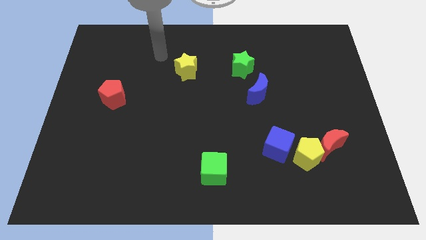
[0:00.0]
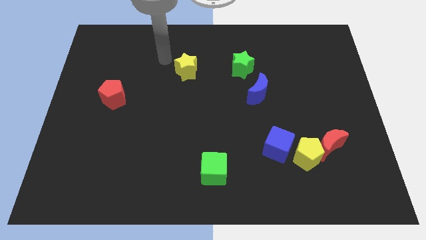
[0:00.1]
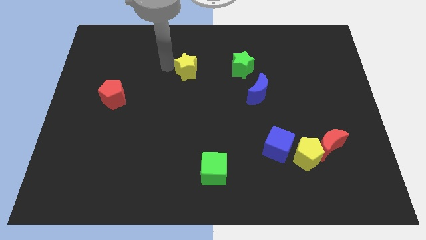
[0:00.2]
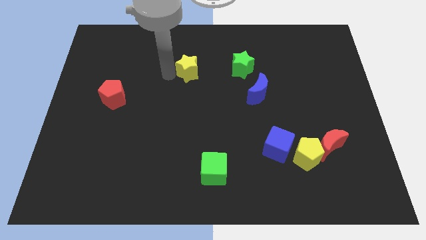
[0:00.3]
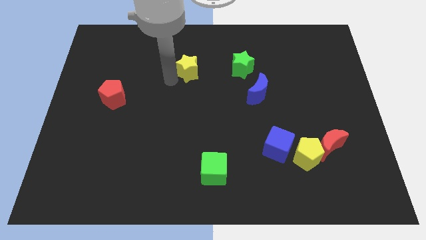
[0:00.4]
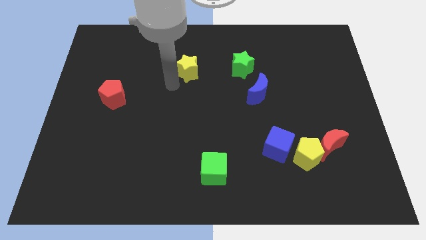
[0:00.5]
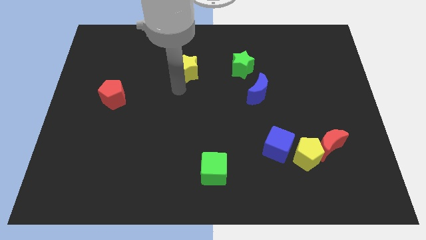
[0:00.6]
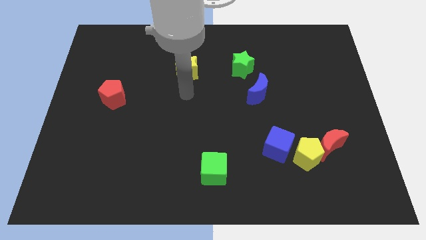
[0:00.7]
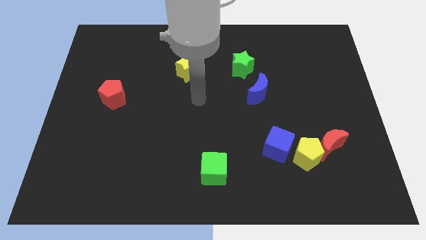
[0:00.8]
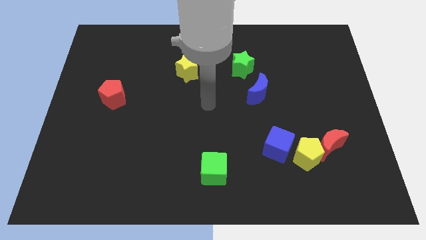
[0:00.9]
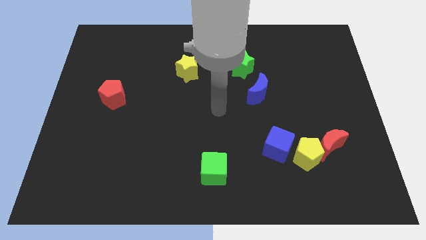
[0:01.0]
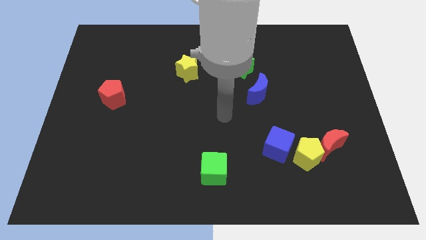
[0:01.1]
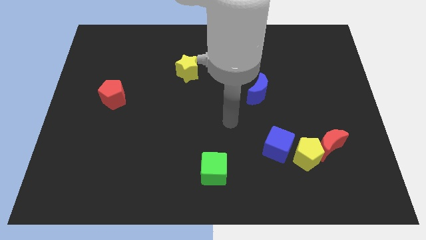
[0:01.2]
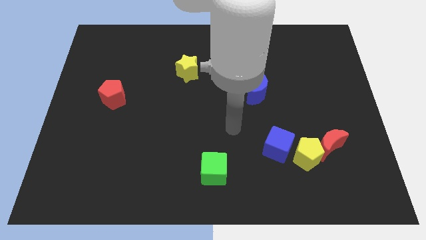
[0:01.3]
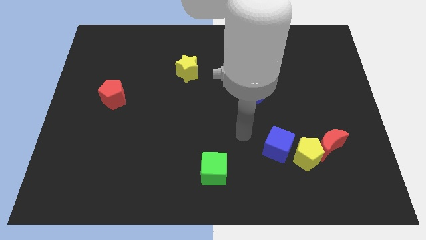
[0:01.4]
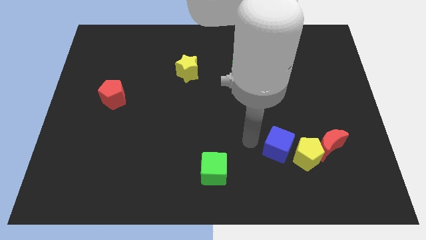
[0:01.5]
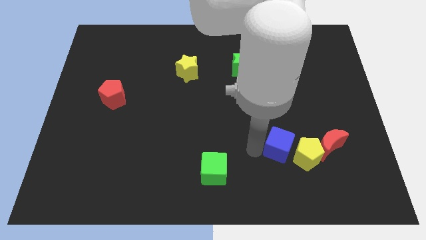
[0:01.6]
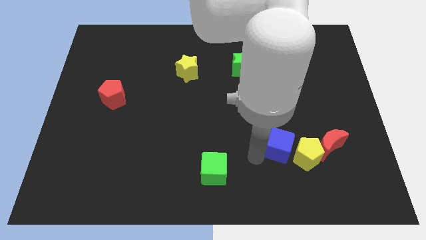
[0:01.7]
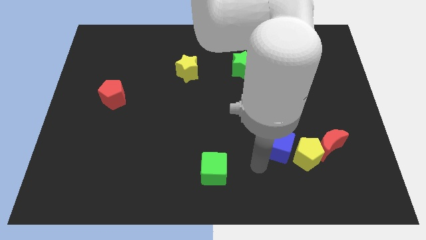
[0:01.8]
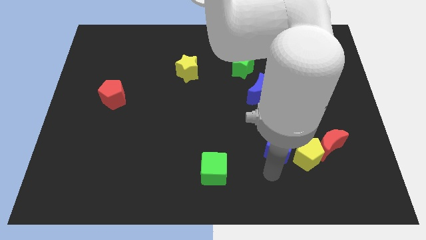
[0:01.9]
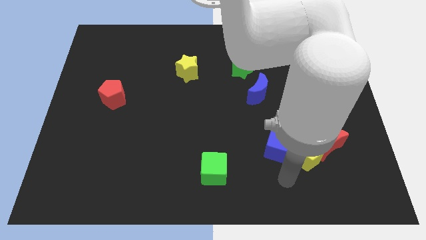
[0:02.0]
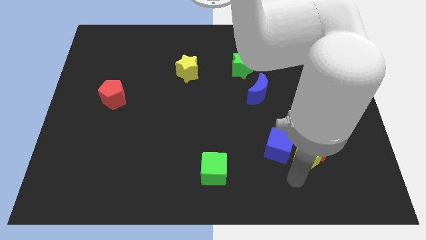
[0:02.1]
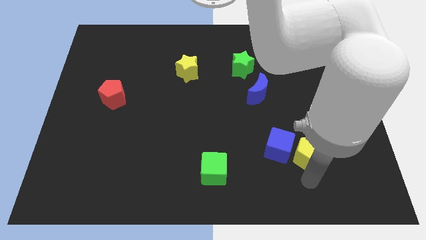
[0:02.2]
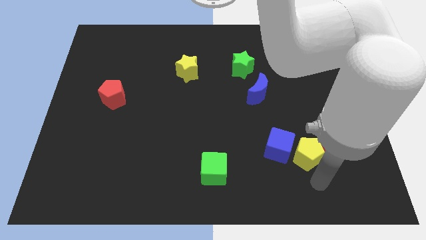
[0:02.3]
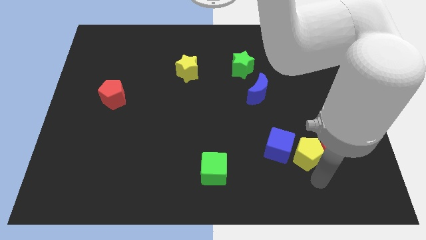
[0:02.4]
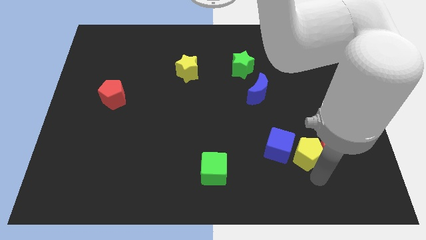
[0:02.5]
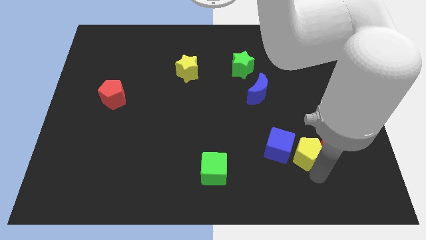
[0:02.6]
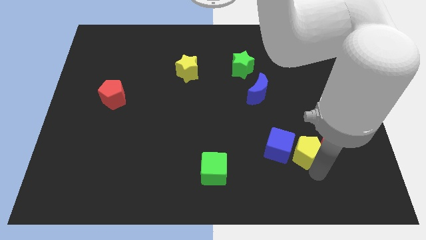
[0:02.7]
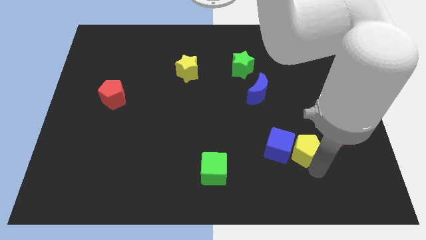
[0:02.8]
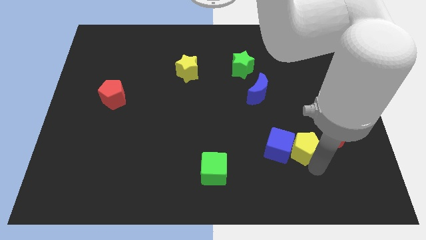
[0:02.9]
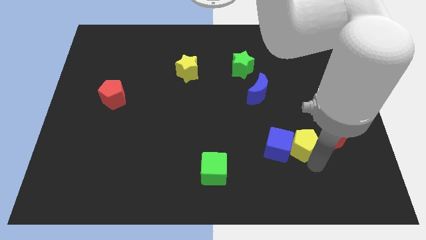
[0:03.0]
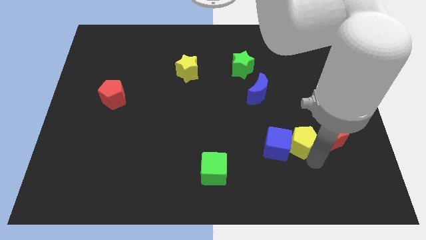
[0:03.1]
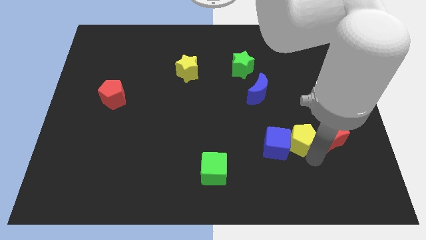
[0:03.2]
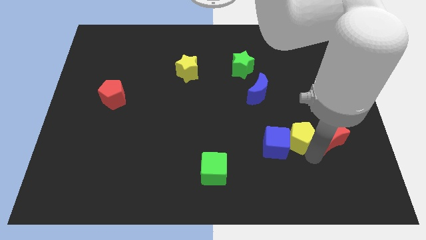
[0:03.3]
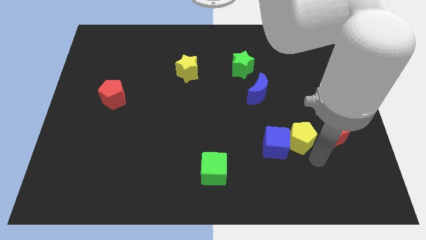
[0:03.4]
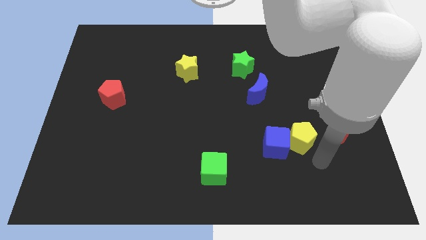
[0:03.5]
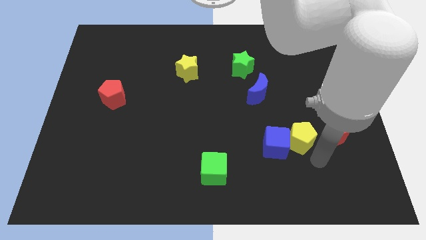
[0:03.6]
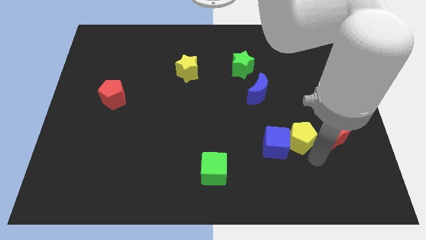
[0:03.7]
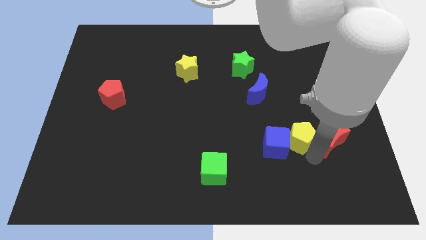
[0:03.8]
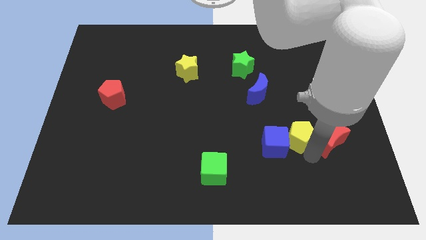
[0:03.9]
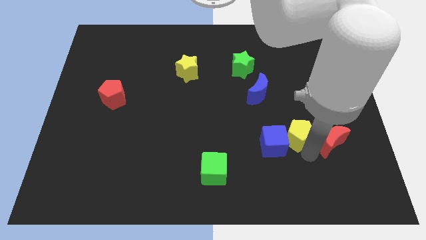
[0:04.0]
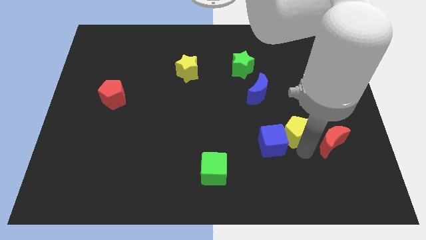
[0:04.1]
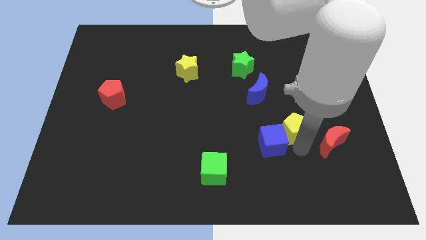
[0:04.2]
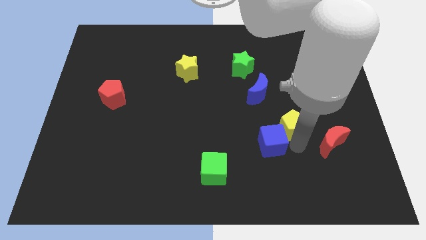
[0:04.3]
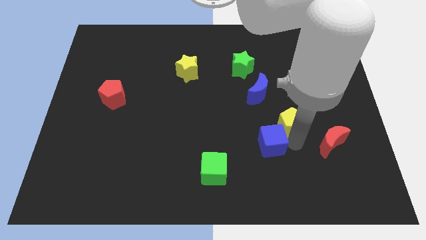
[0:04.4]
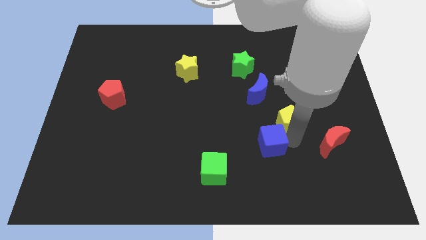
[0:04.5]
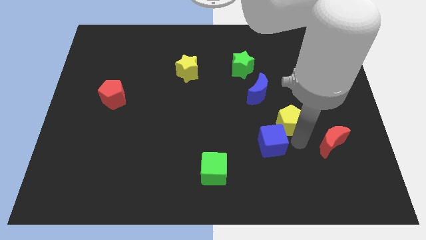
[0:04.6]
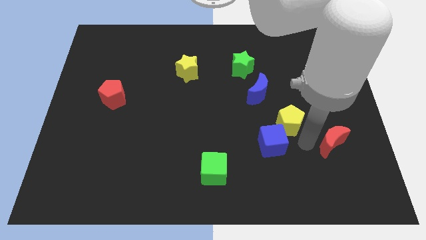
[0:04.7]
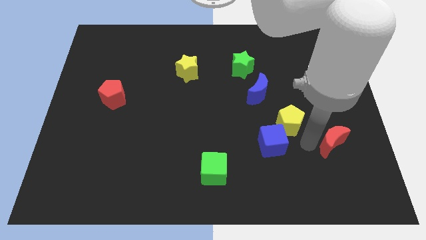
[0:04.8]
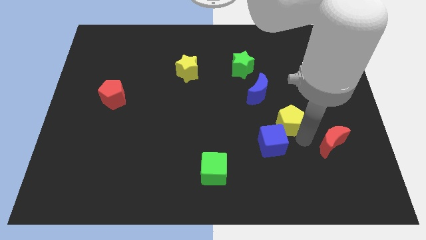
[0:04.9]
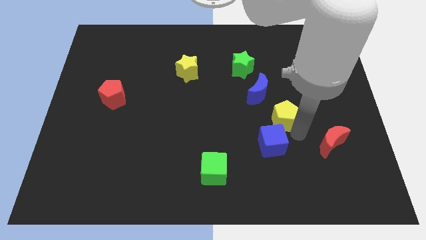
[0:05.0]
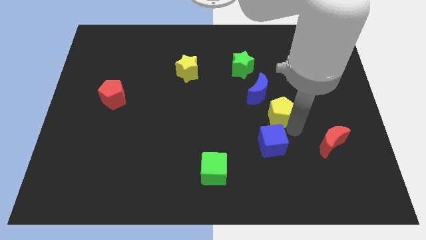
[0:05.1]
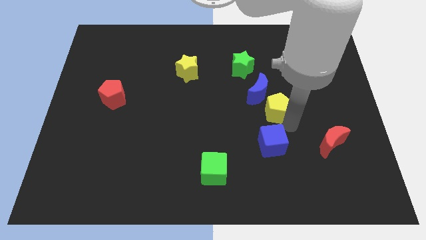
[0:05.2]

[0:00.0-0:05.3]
move the yellow pentagon next to the blue moon

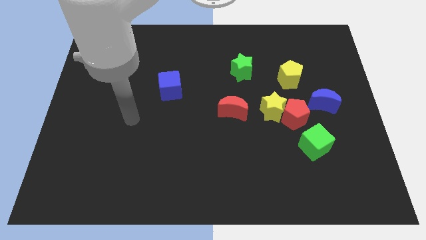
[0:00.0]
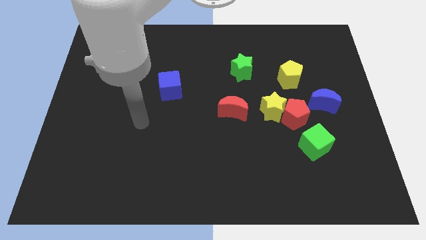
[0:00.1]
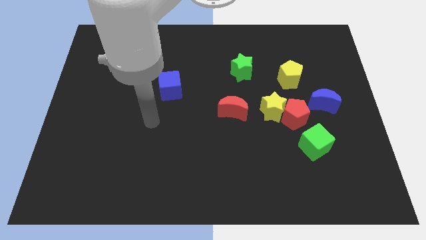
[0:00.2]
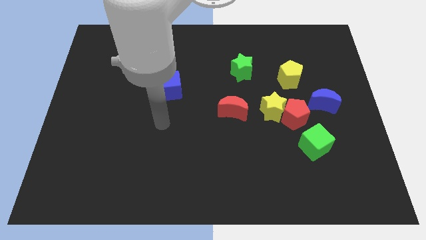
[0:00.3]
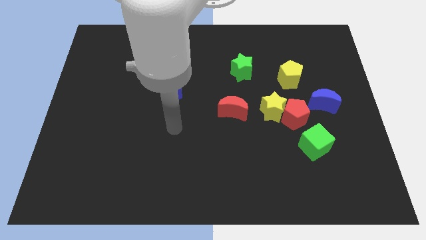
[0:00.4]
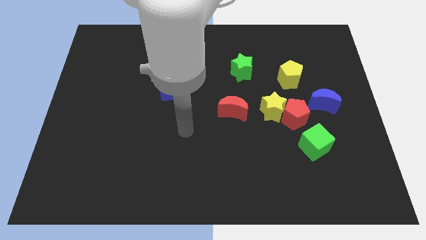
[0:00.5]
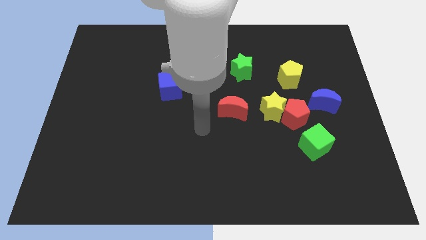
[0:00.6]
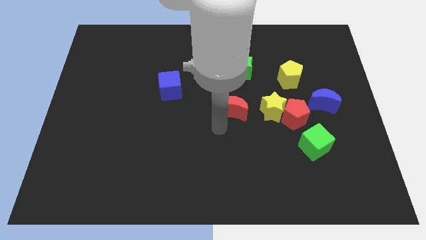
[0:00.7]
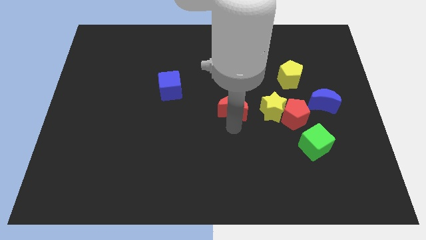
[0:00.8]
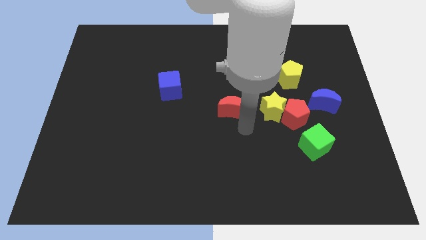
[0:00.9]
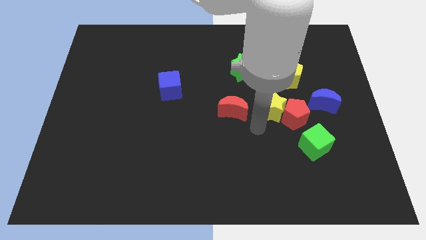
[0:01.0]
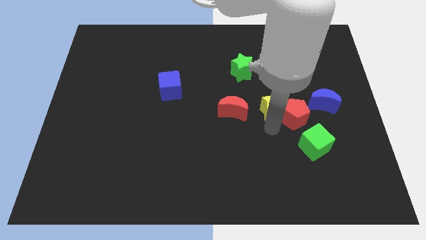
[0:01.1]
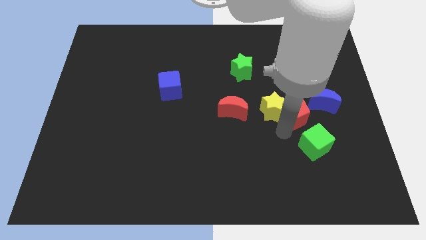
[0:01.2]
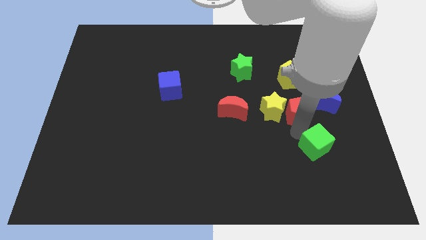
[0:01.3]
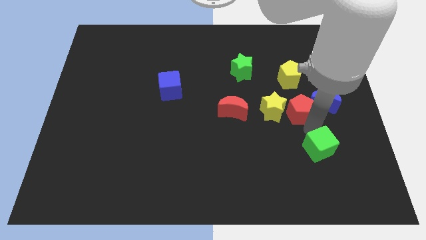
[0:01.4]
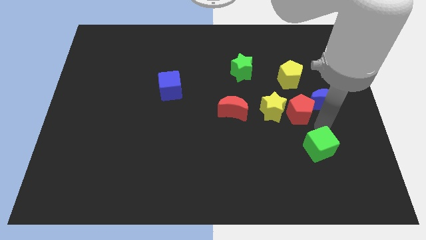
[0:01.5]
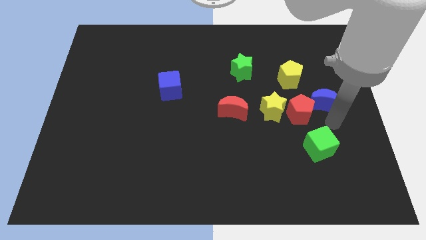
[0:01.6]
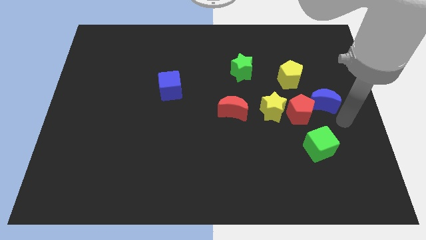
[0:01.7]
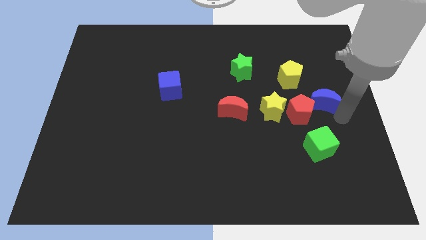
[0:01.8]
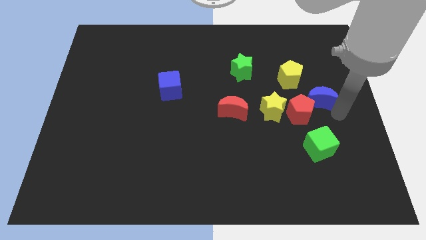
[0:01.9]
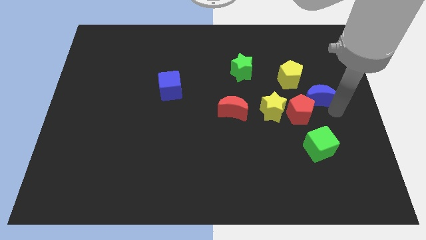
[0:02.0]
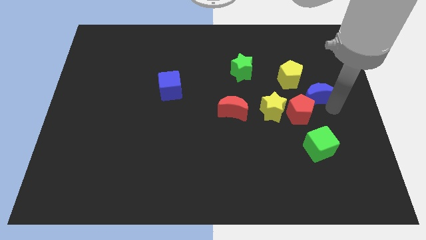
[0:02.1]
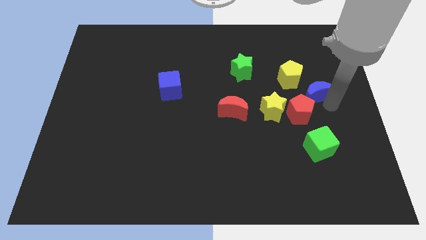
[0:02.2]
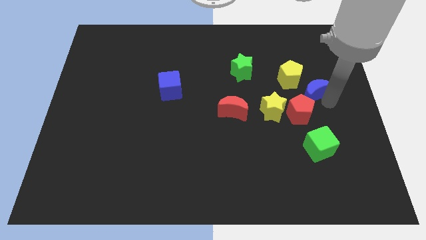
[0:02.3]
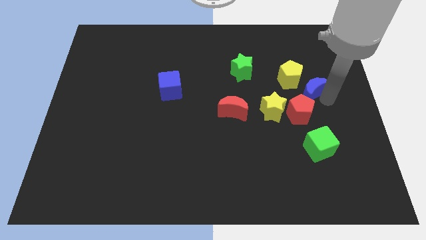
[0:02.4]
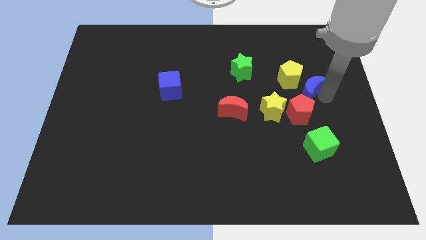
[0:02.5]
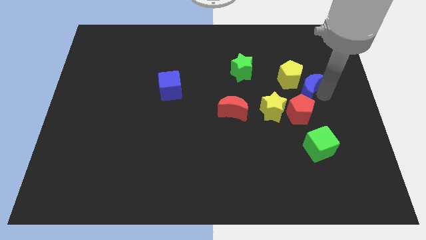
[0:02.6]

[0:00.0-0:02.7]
move the blue moon towards the yellow pentagon

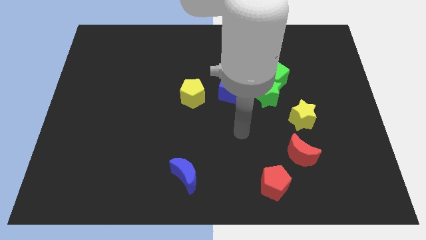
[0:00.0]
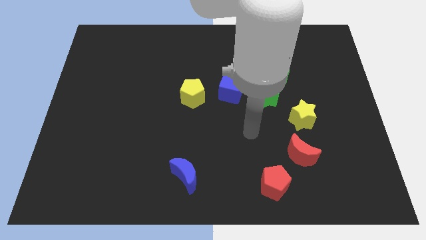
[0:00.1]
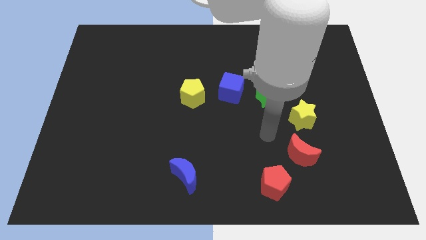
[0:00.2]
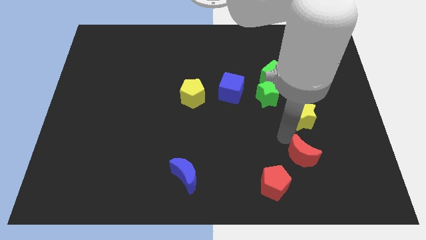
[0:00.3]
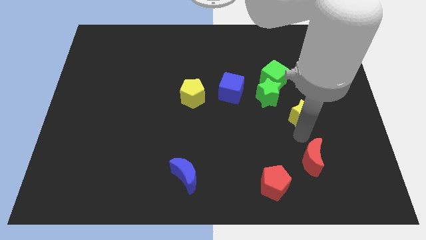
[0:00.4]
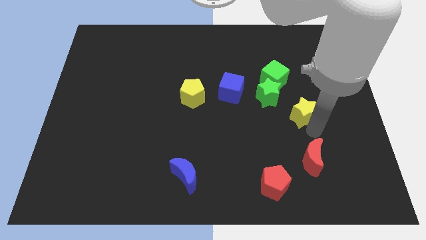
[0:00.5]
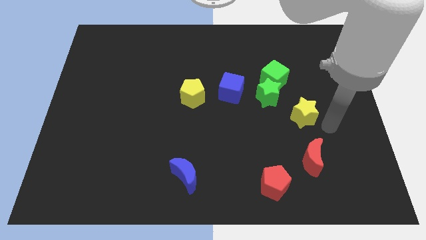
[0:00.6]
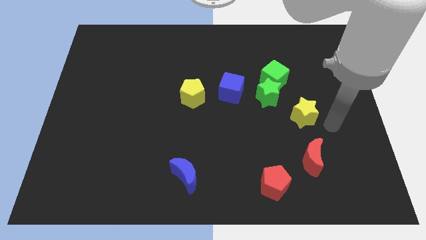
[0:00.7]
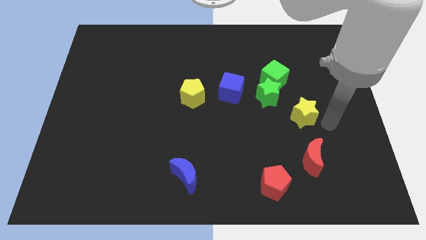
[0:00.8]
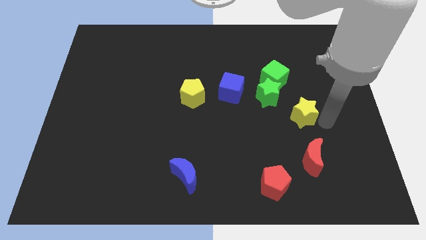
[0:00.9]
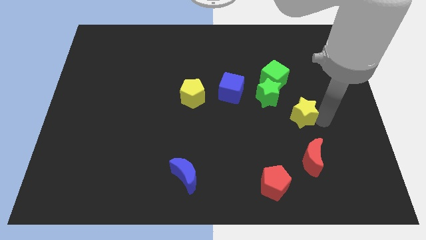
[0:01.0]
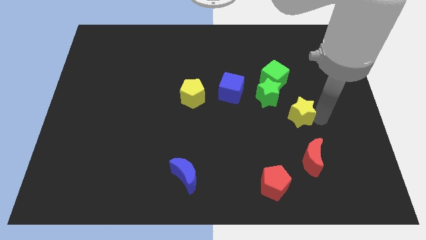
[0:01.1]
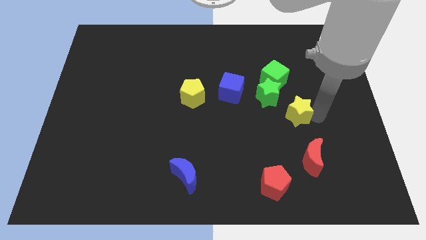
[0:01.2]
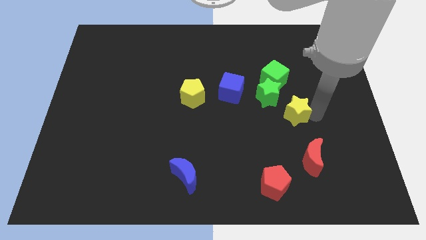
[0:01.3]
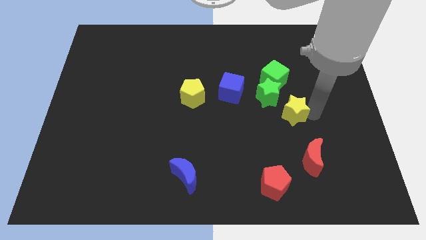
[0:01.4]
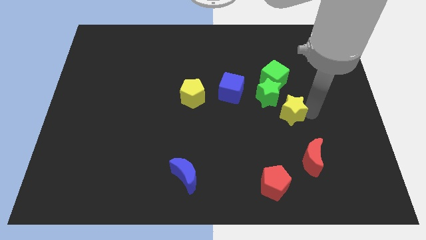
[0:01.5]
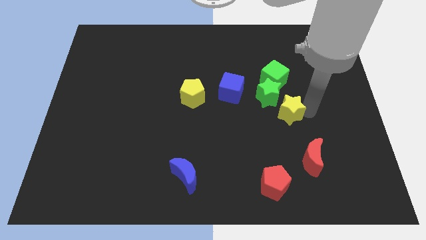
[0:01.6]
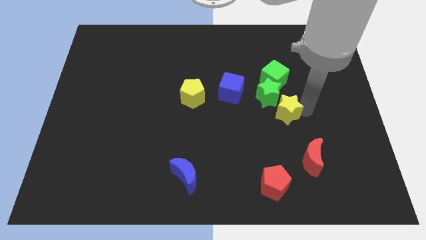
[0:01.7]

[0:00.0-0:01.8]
move the yellow star towards the green star
